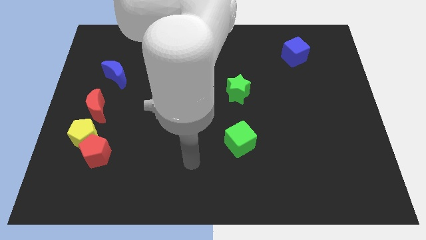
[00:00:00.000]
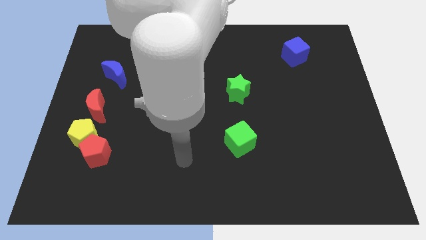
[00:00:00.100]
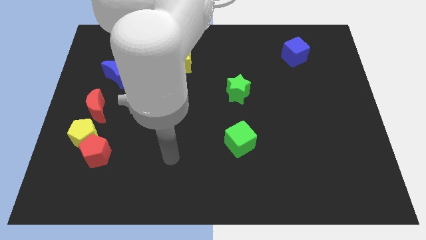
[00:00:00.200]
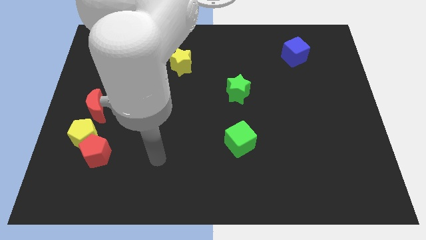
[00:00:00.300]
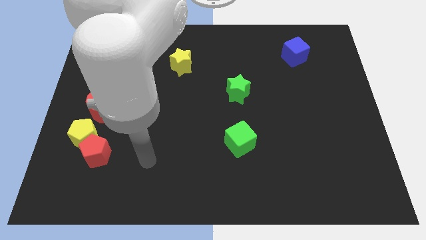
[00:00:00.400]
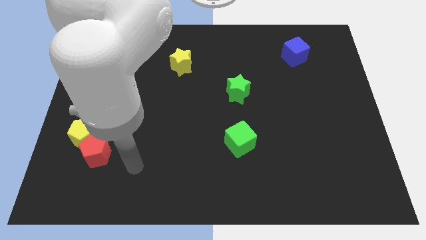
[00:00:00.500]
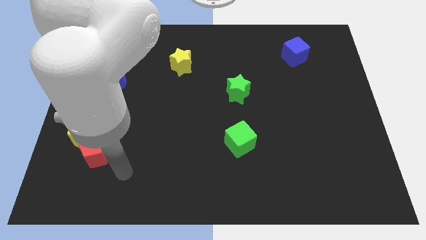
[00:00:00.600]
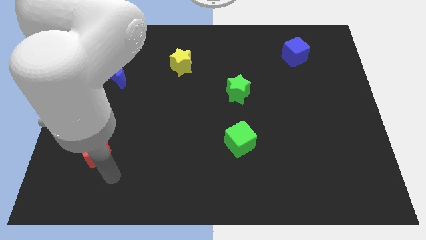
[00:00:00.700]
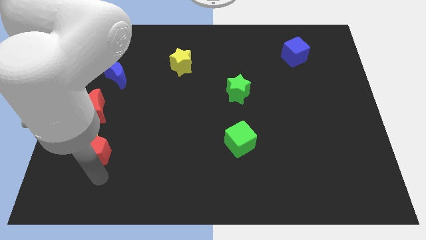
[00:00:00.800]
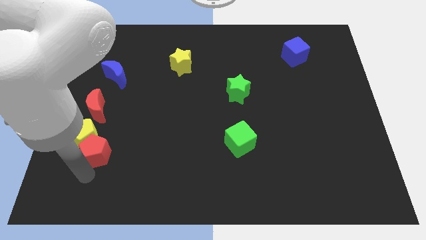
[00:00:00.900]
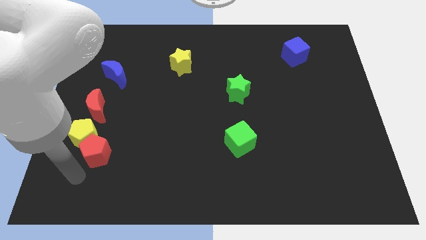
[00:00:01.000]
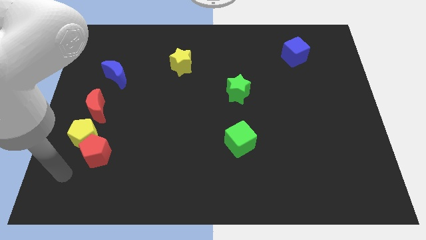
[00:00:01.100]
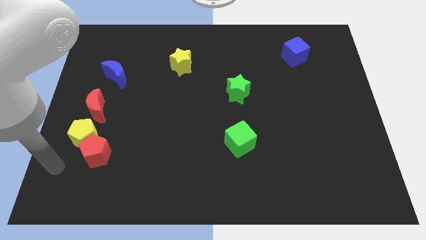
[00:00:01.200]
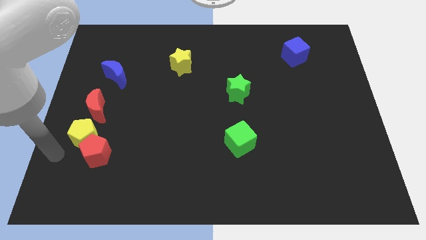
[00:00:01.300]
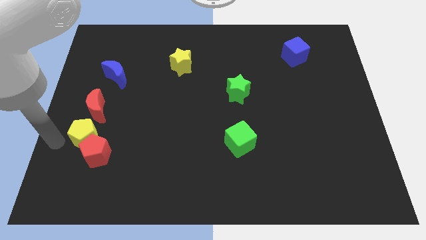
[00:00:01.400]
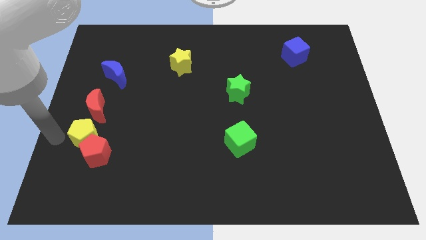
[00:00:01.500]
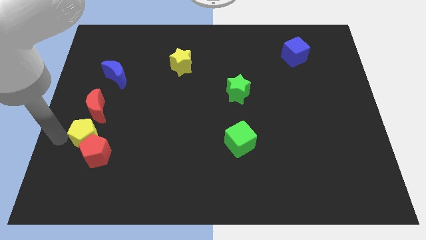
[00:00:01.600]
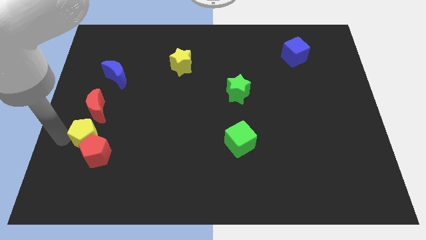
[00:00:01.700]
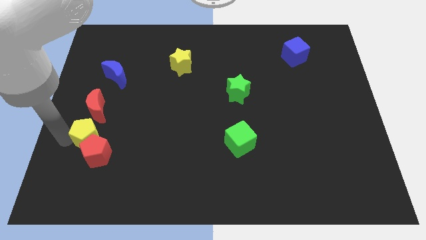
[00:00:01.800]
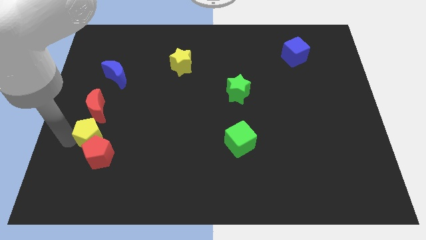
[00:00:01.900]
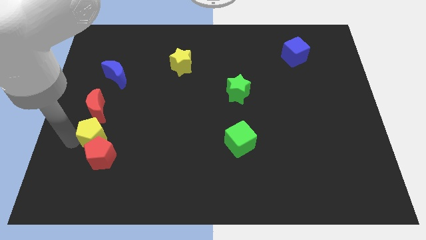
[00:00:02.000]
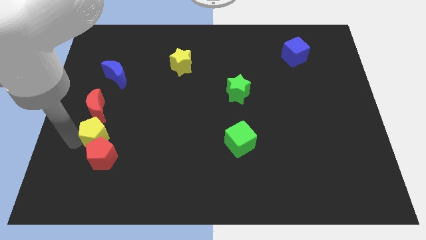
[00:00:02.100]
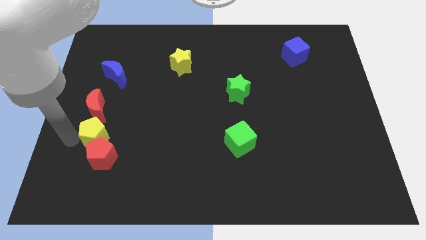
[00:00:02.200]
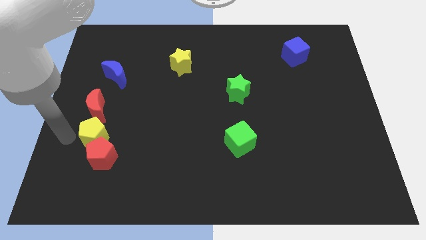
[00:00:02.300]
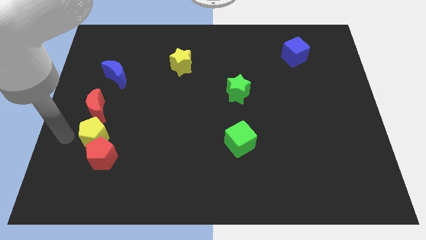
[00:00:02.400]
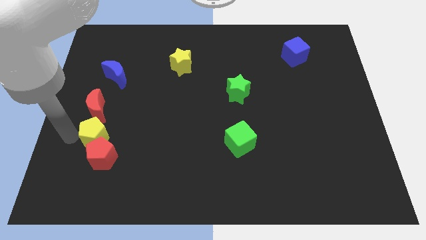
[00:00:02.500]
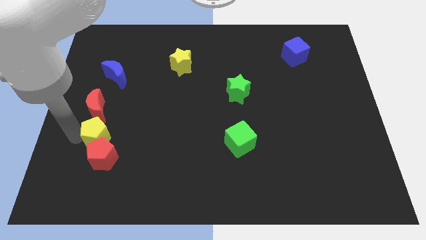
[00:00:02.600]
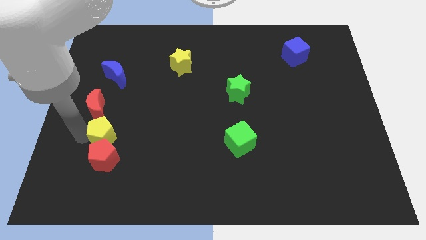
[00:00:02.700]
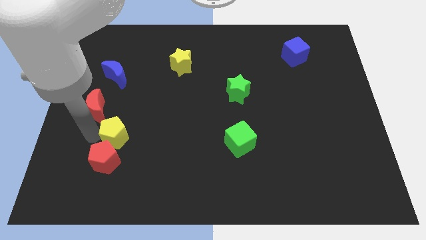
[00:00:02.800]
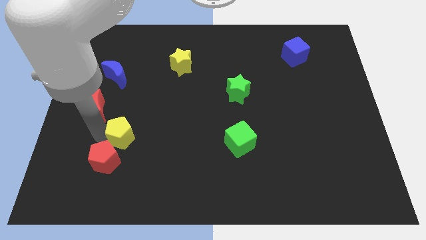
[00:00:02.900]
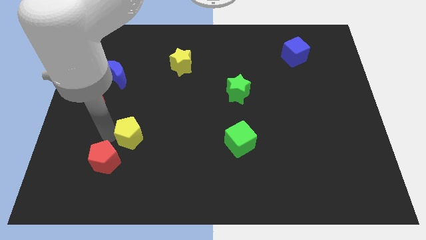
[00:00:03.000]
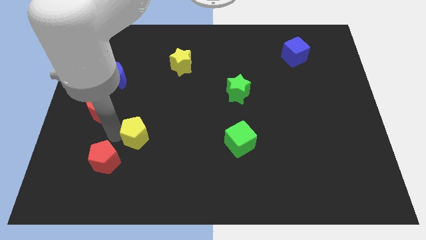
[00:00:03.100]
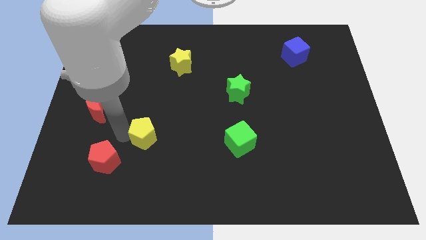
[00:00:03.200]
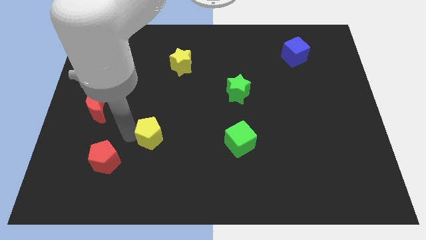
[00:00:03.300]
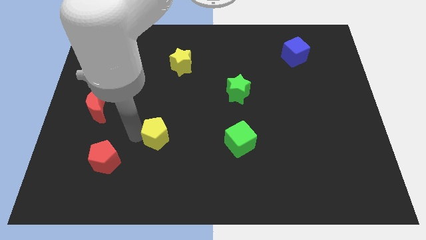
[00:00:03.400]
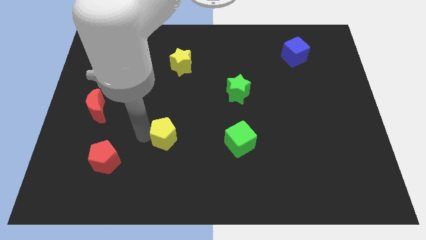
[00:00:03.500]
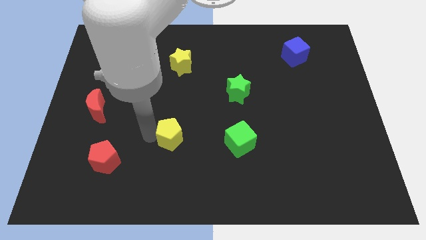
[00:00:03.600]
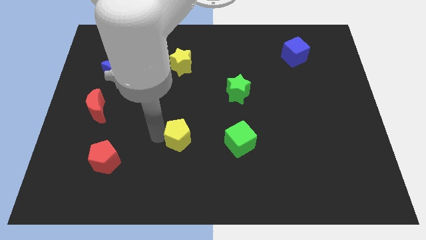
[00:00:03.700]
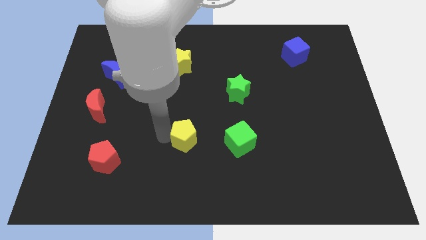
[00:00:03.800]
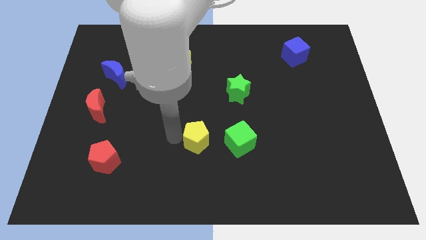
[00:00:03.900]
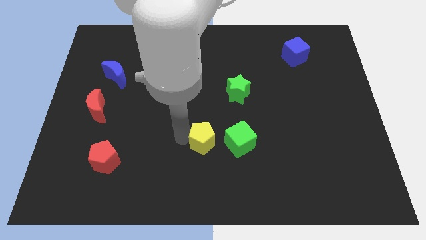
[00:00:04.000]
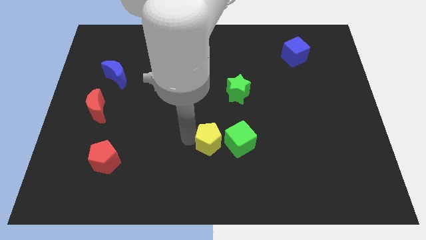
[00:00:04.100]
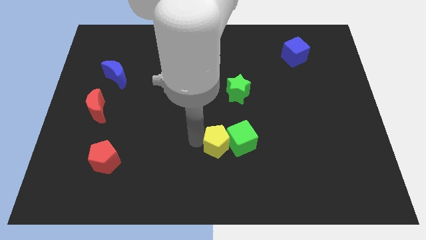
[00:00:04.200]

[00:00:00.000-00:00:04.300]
slide the yellow pentagon to the green cube

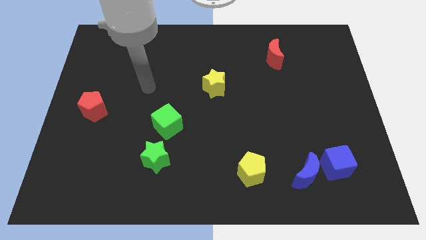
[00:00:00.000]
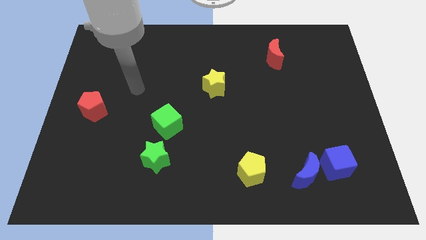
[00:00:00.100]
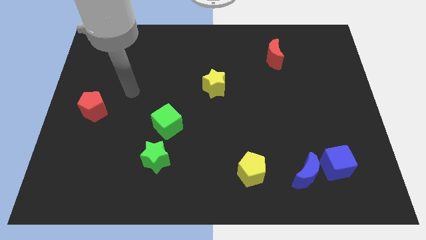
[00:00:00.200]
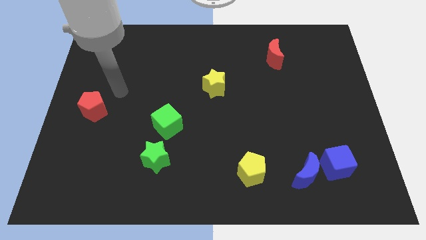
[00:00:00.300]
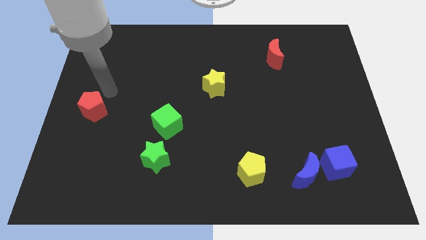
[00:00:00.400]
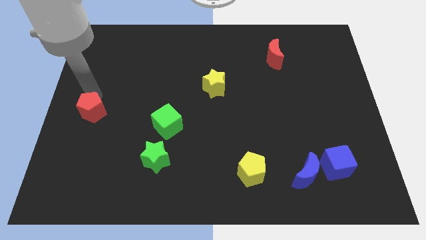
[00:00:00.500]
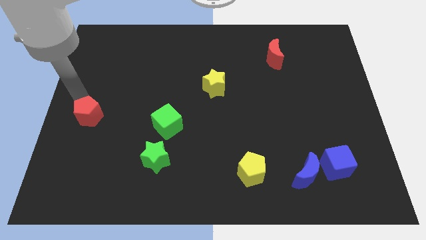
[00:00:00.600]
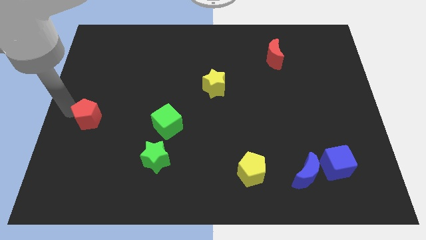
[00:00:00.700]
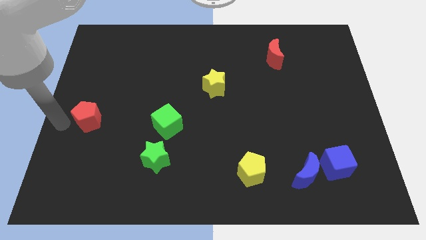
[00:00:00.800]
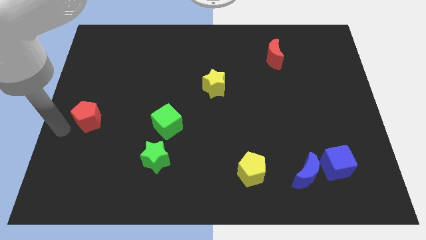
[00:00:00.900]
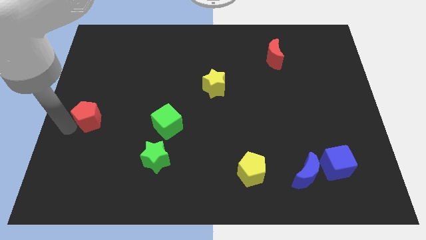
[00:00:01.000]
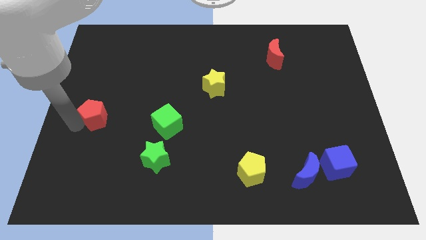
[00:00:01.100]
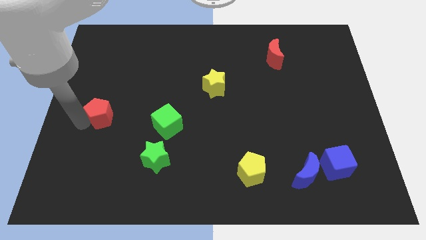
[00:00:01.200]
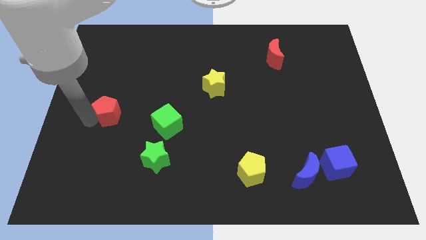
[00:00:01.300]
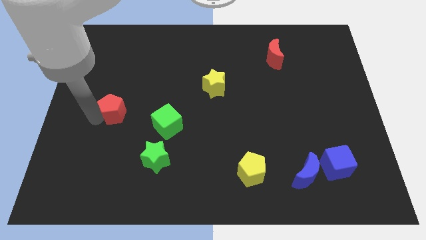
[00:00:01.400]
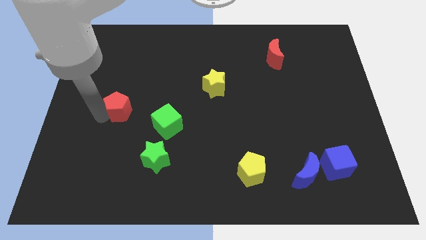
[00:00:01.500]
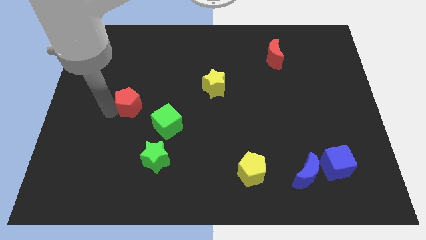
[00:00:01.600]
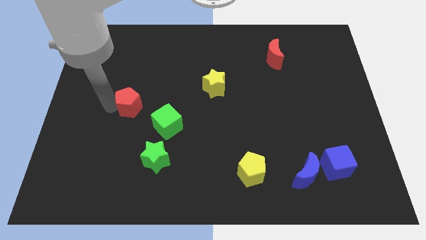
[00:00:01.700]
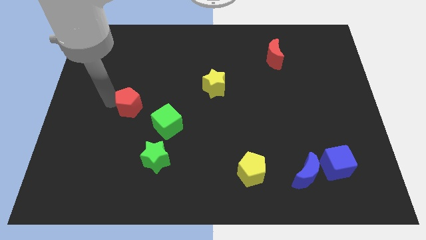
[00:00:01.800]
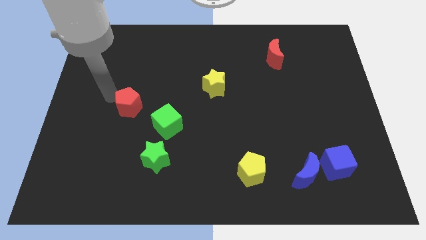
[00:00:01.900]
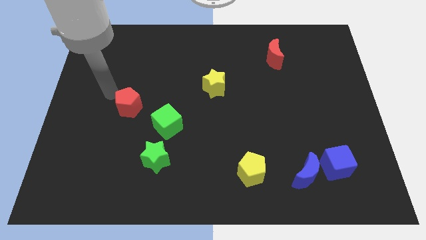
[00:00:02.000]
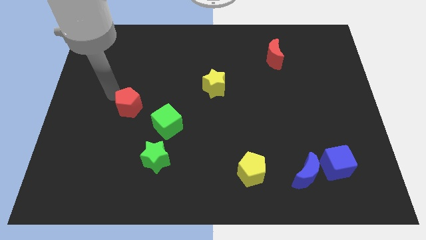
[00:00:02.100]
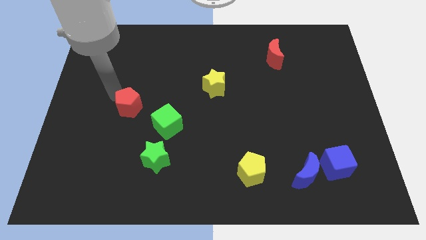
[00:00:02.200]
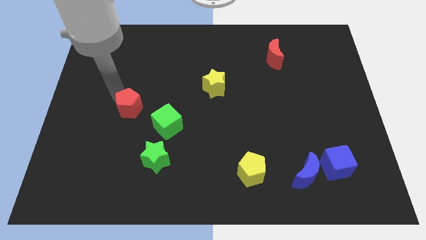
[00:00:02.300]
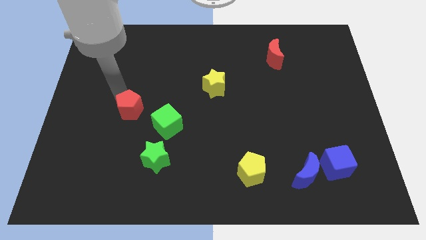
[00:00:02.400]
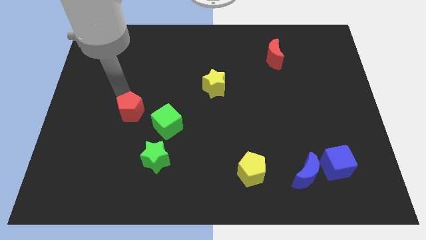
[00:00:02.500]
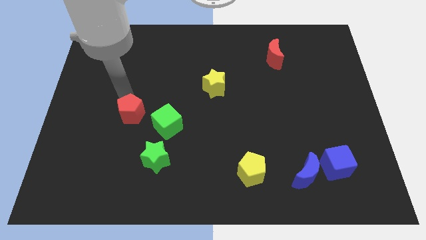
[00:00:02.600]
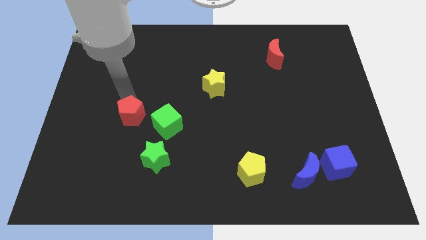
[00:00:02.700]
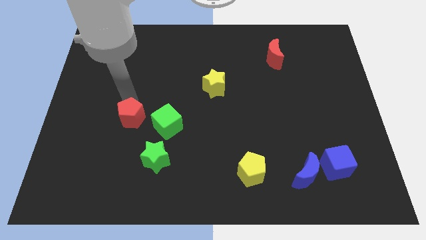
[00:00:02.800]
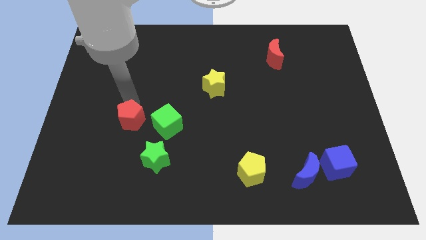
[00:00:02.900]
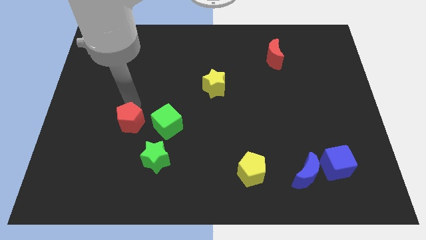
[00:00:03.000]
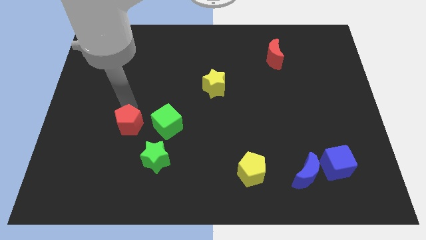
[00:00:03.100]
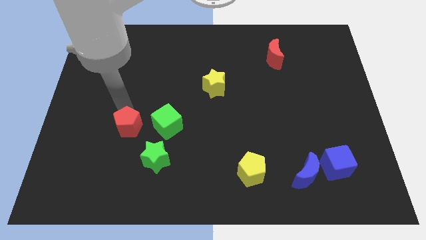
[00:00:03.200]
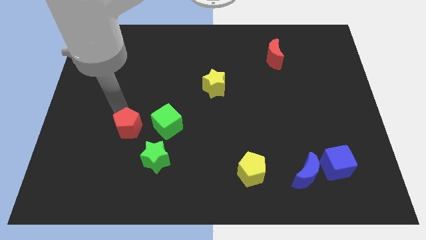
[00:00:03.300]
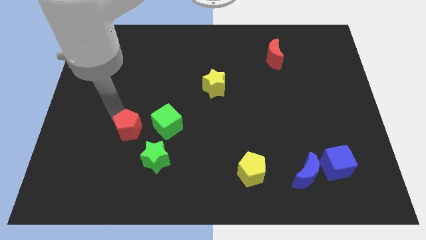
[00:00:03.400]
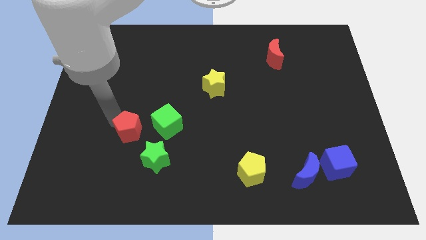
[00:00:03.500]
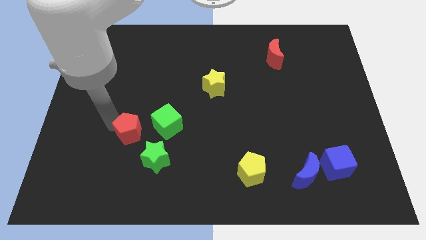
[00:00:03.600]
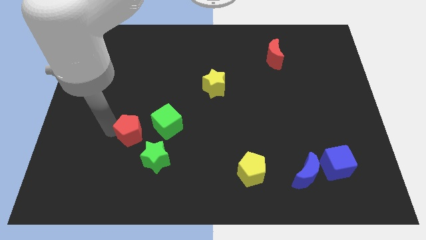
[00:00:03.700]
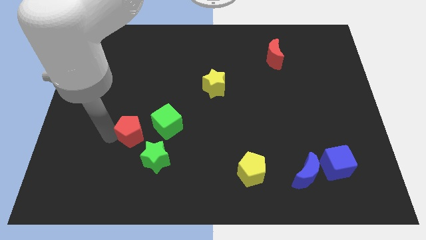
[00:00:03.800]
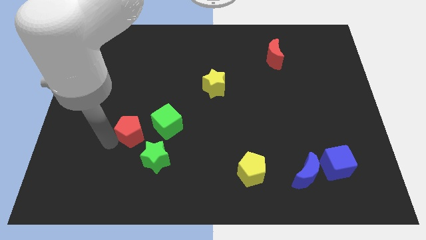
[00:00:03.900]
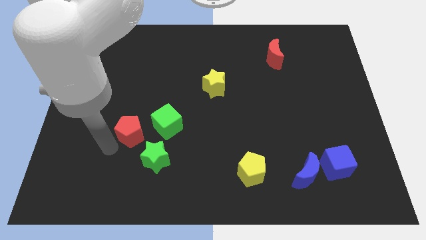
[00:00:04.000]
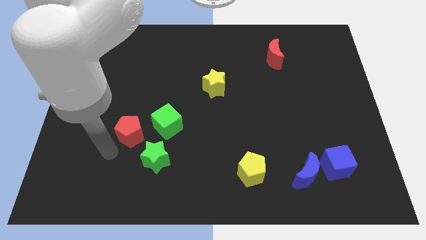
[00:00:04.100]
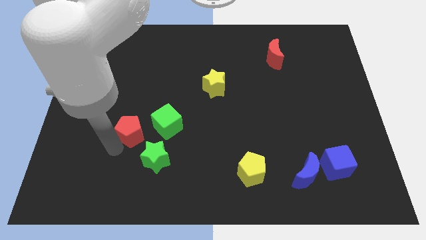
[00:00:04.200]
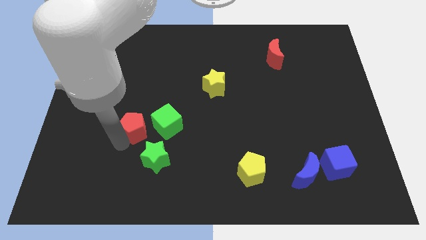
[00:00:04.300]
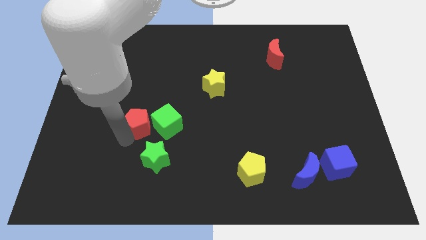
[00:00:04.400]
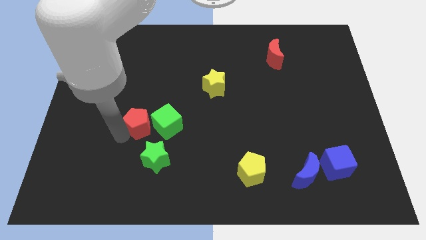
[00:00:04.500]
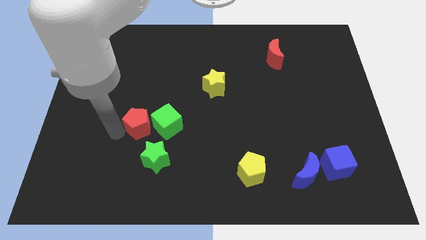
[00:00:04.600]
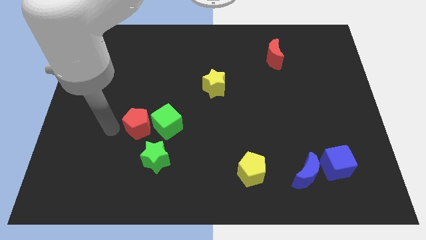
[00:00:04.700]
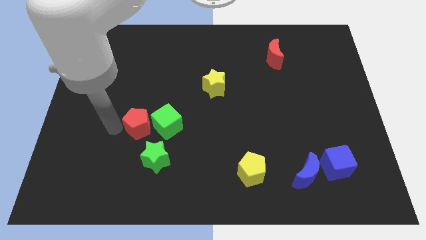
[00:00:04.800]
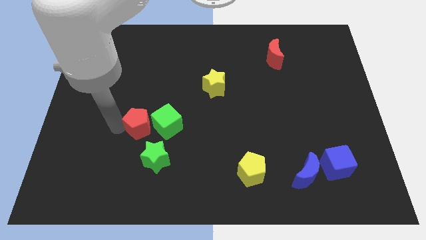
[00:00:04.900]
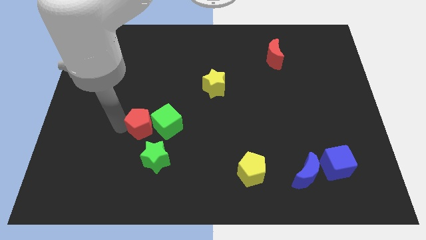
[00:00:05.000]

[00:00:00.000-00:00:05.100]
slide the red pentagon to the green cube
